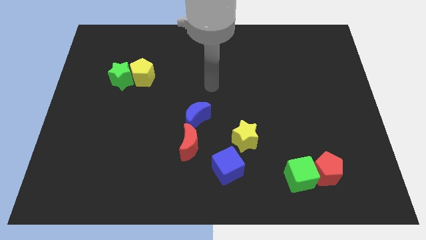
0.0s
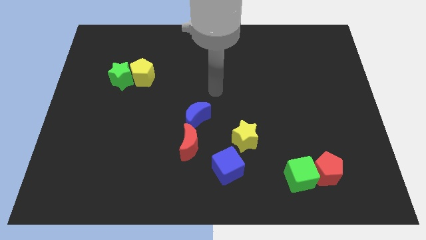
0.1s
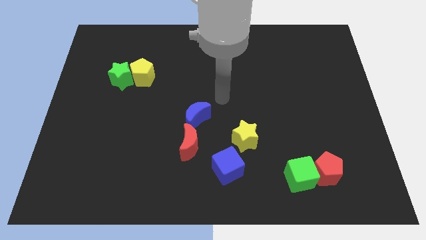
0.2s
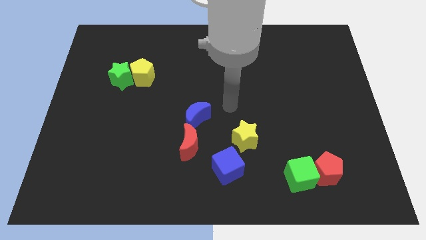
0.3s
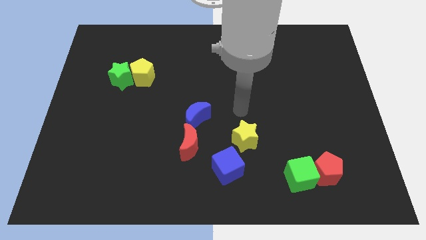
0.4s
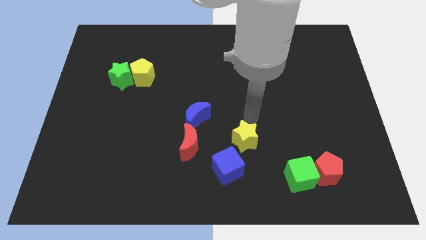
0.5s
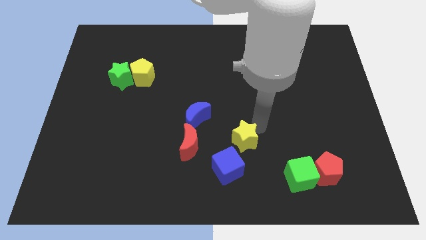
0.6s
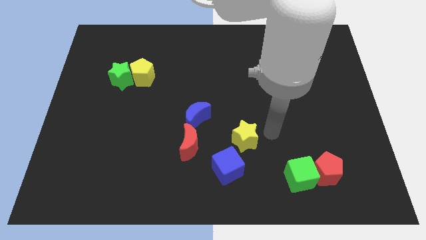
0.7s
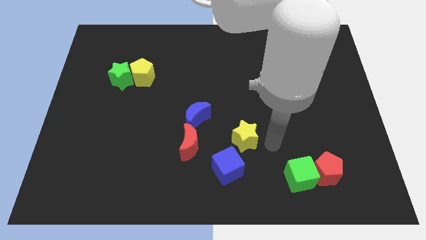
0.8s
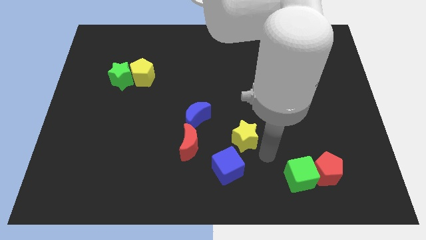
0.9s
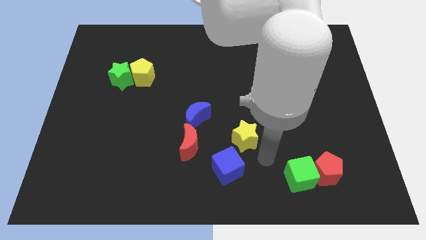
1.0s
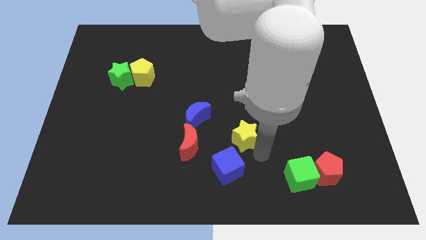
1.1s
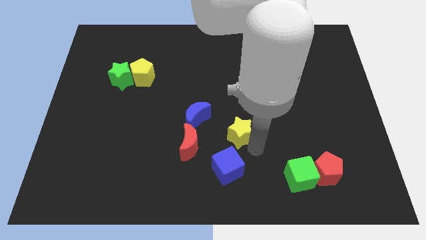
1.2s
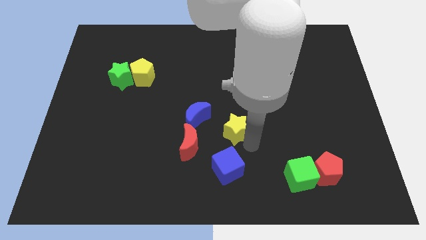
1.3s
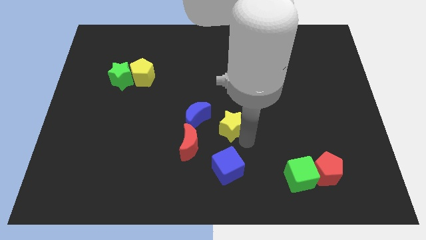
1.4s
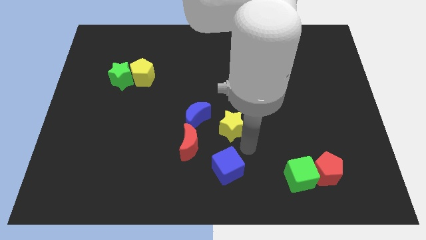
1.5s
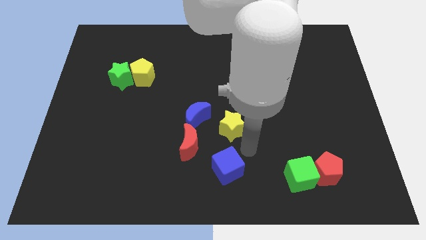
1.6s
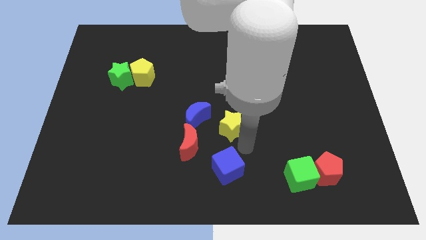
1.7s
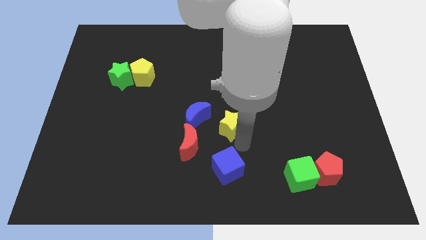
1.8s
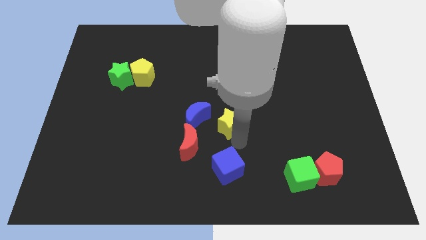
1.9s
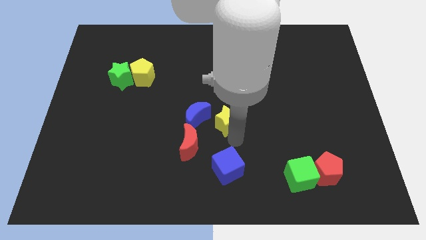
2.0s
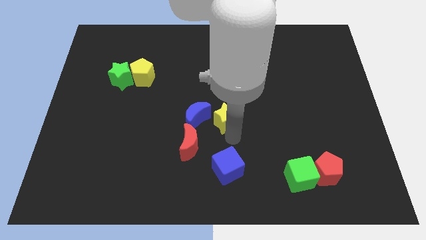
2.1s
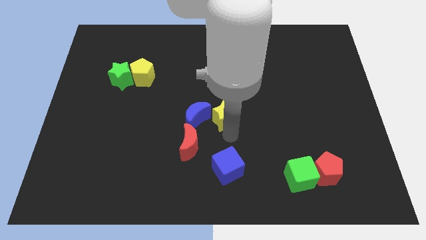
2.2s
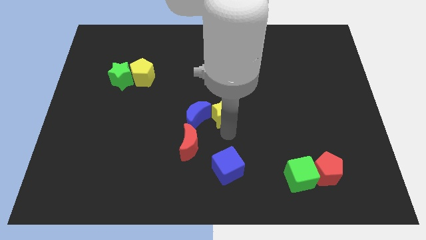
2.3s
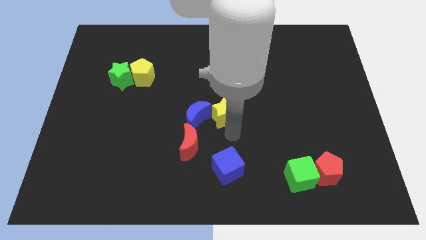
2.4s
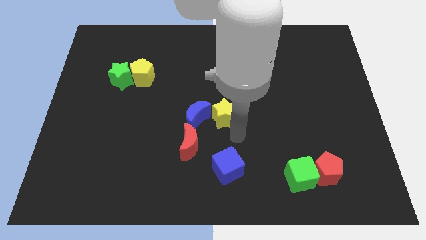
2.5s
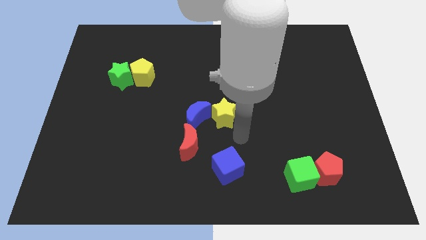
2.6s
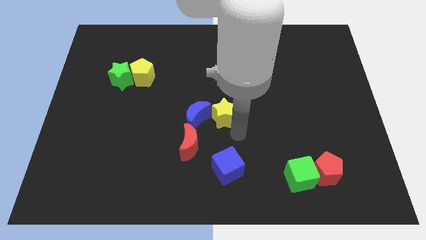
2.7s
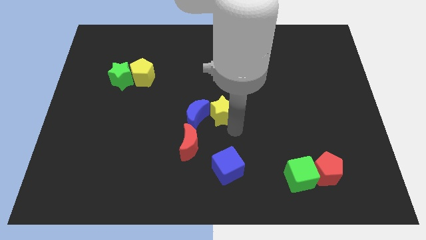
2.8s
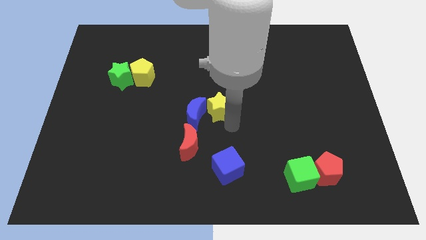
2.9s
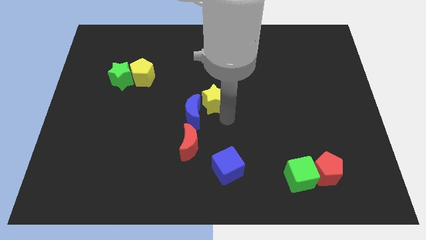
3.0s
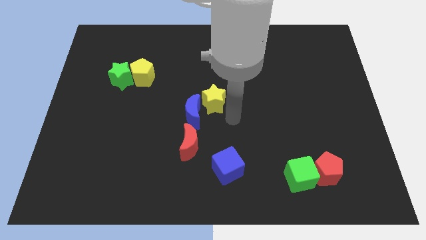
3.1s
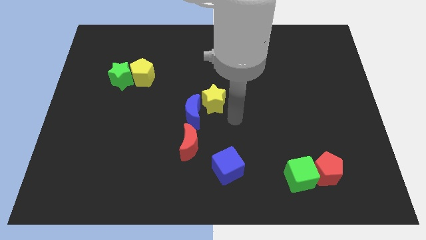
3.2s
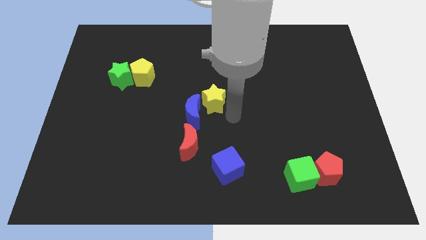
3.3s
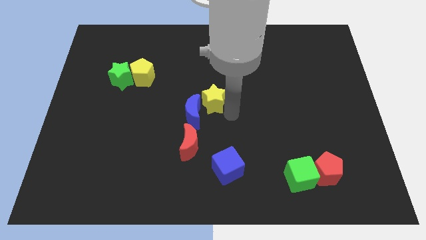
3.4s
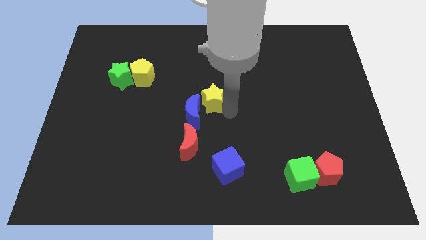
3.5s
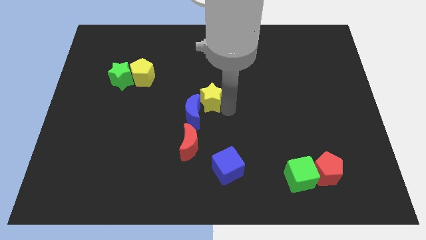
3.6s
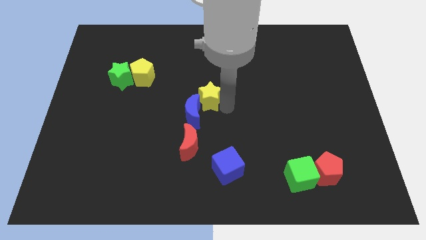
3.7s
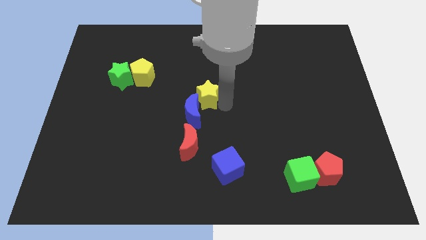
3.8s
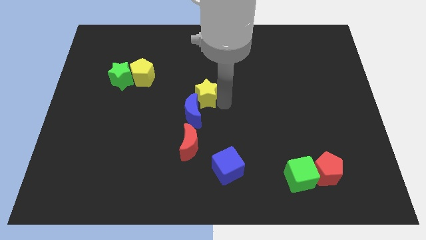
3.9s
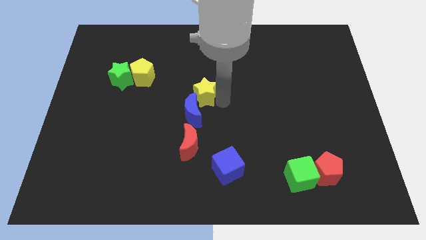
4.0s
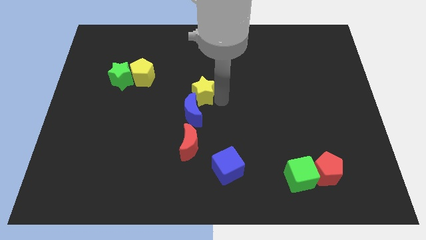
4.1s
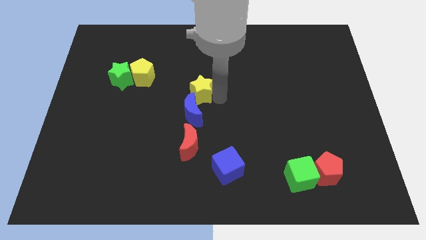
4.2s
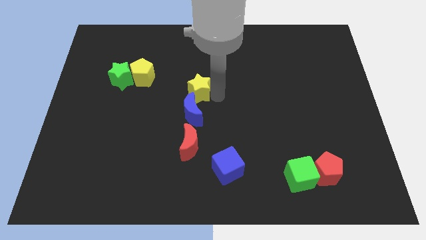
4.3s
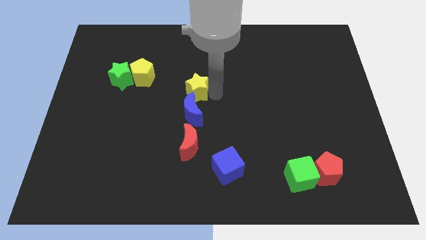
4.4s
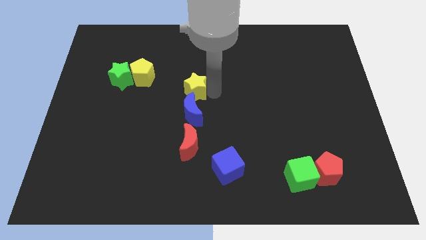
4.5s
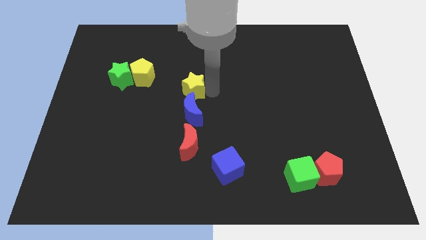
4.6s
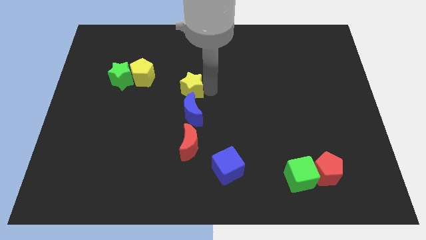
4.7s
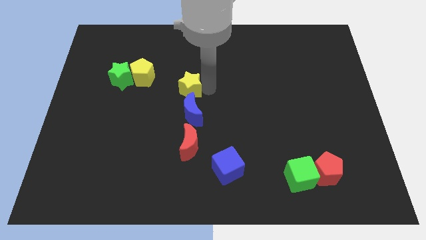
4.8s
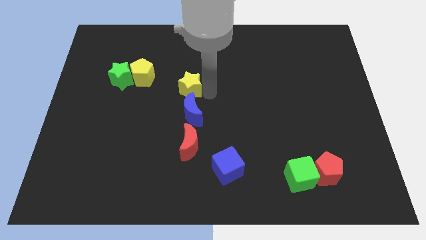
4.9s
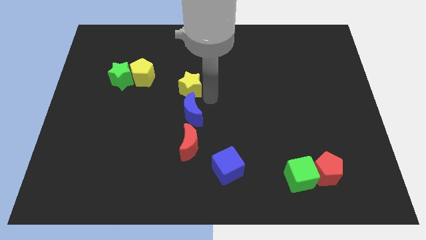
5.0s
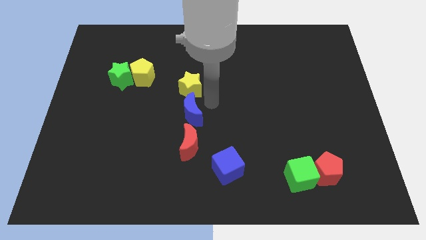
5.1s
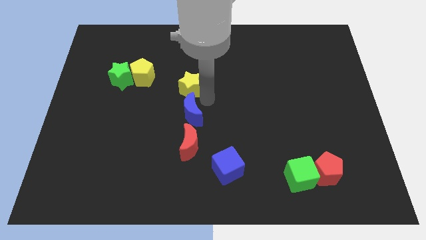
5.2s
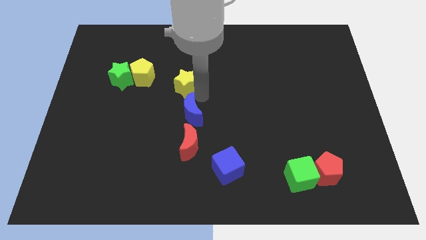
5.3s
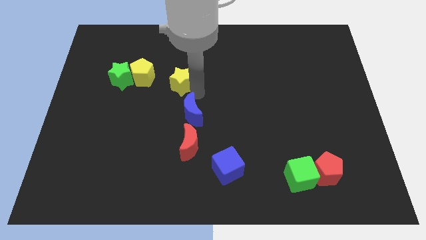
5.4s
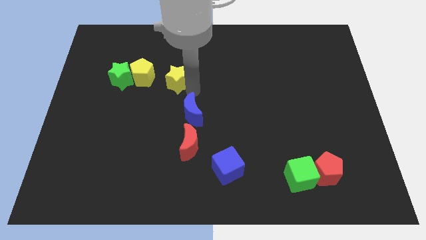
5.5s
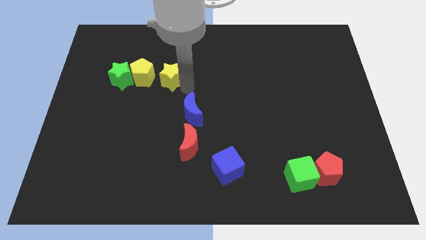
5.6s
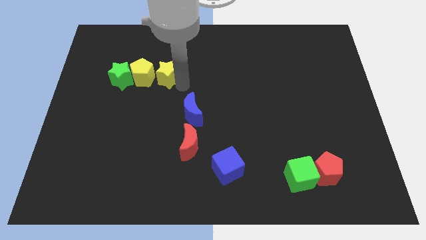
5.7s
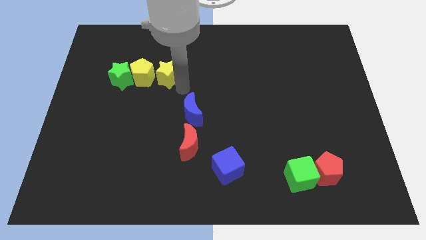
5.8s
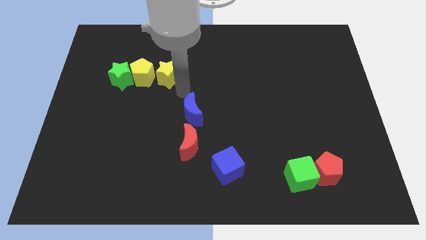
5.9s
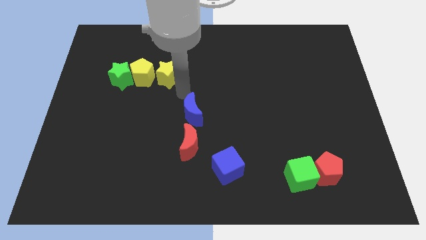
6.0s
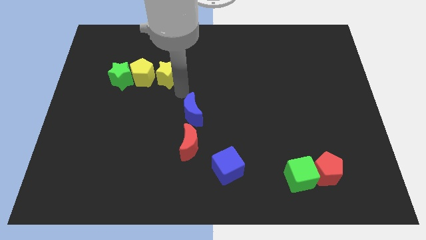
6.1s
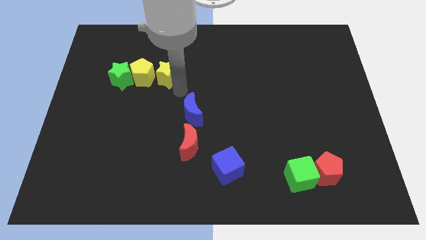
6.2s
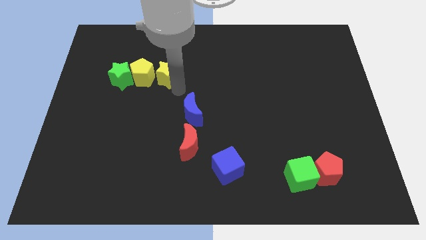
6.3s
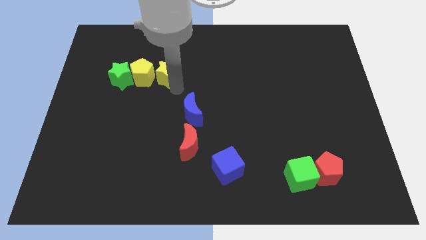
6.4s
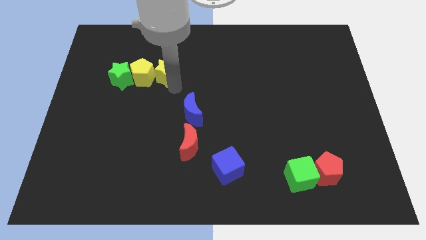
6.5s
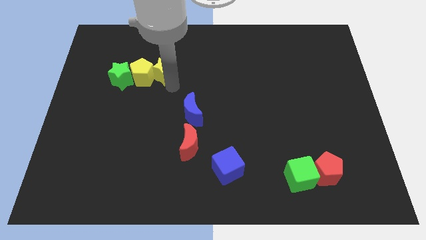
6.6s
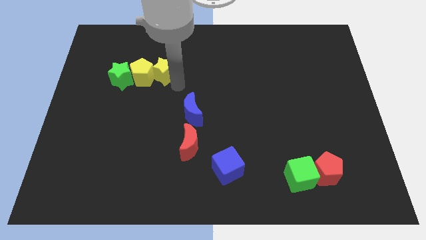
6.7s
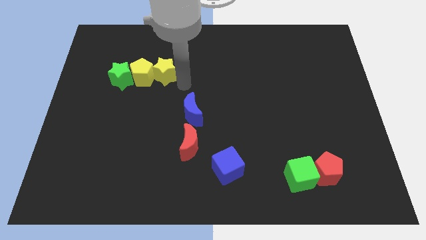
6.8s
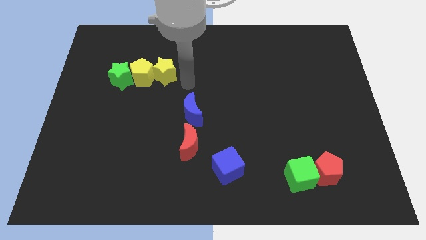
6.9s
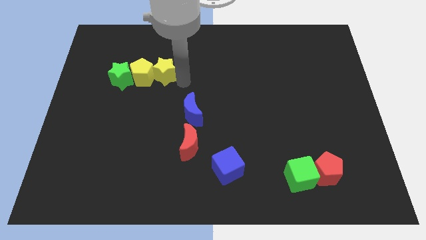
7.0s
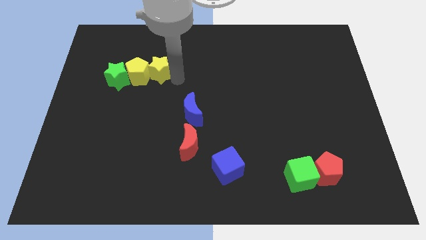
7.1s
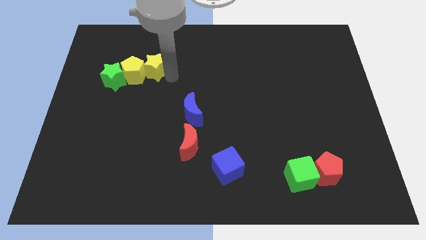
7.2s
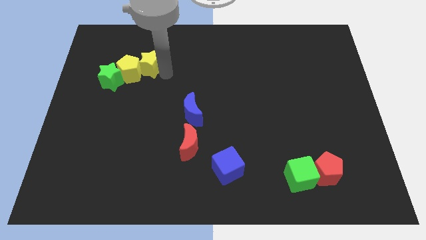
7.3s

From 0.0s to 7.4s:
push the yellow star to the top right of the green star

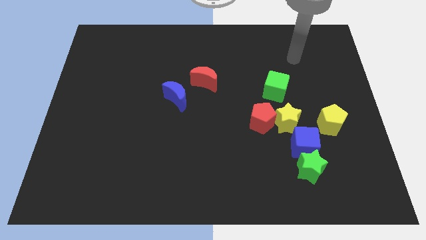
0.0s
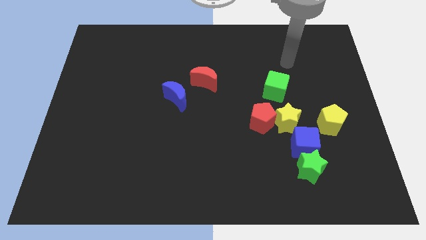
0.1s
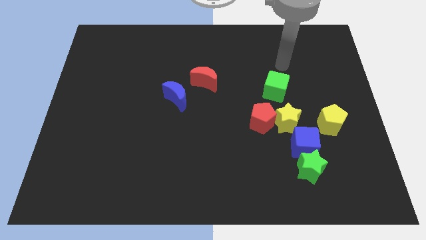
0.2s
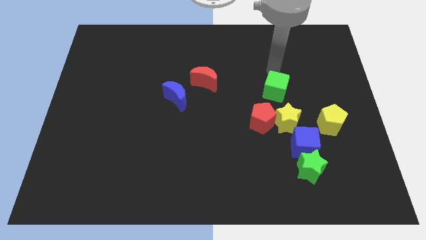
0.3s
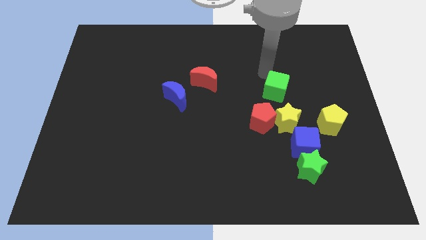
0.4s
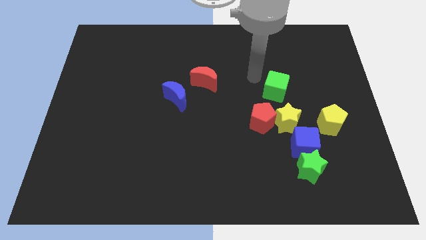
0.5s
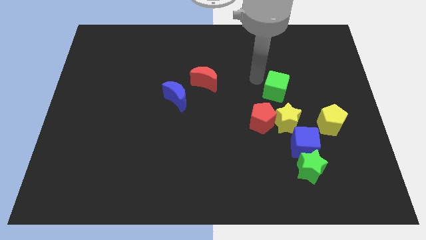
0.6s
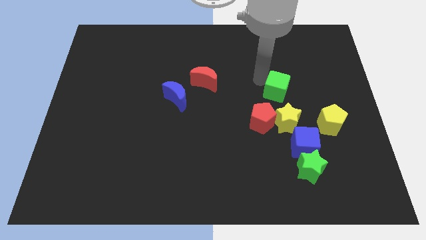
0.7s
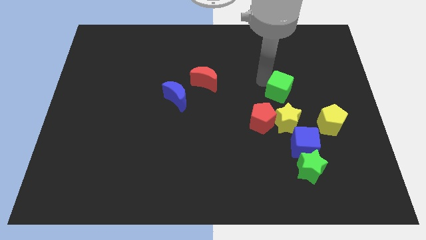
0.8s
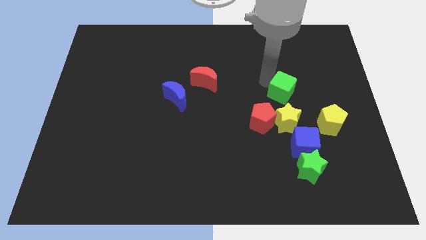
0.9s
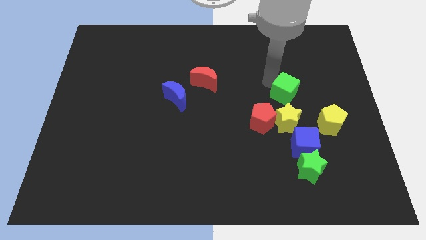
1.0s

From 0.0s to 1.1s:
put the green cube to the top left side of the yellow pentagon
